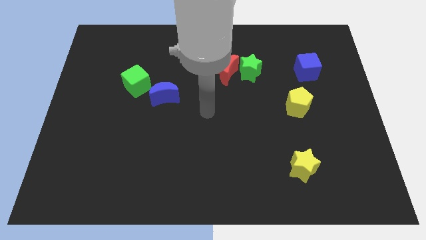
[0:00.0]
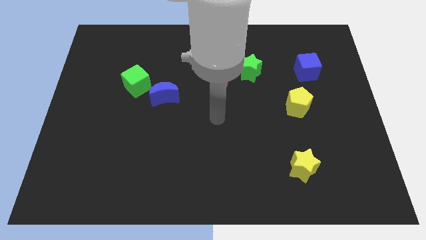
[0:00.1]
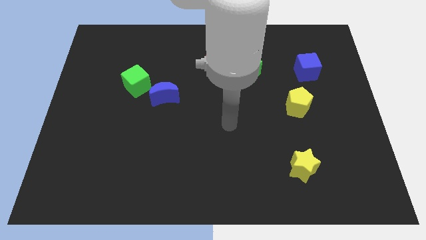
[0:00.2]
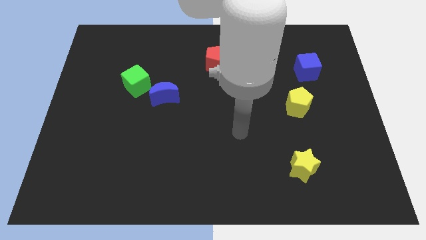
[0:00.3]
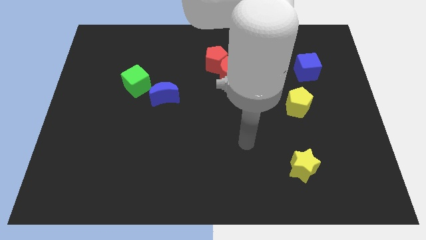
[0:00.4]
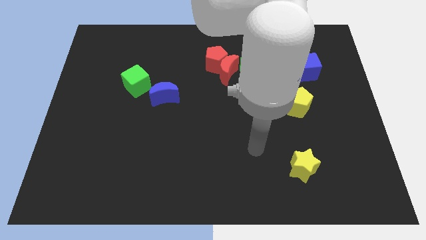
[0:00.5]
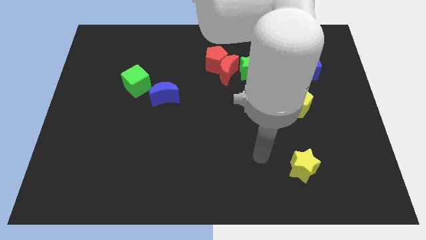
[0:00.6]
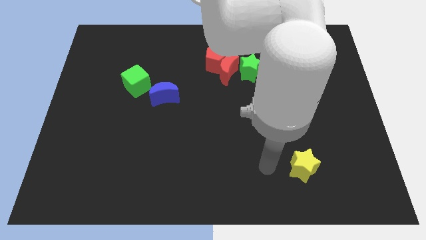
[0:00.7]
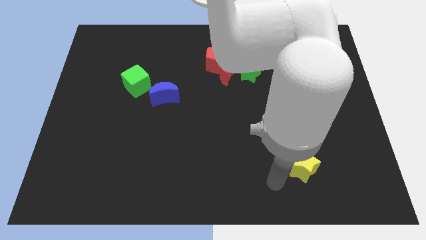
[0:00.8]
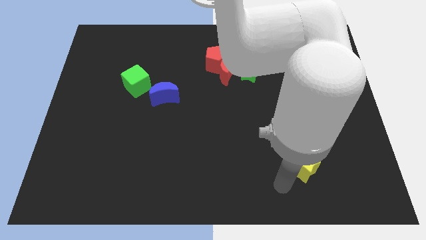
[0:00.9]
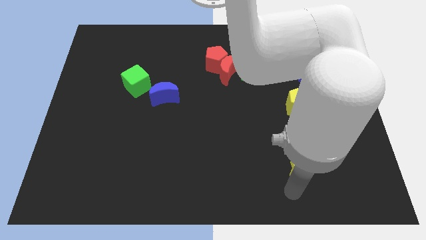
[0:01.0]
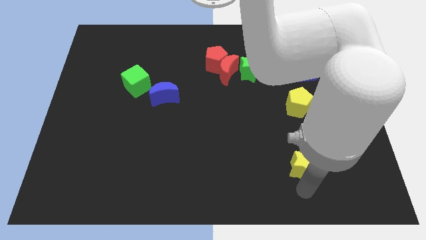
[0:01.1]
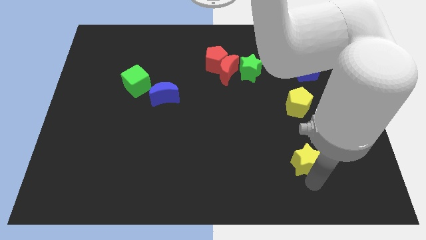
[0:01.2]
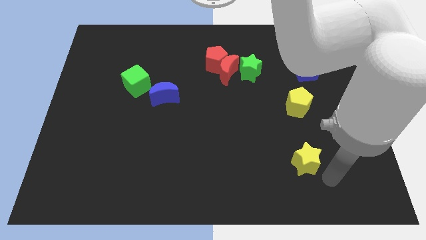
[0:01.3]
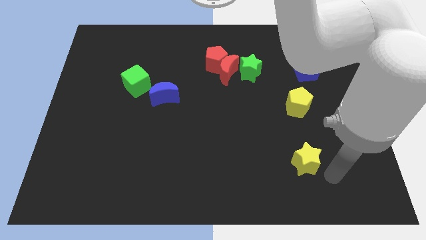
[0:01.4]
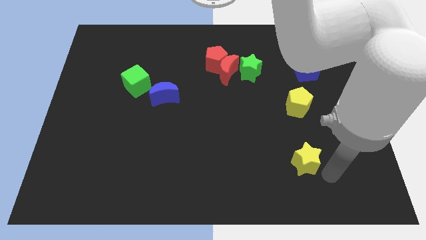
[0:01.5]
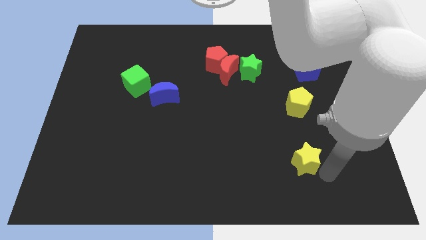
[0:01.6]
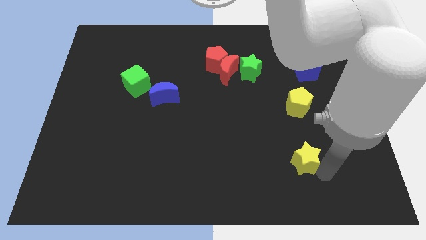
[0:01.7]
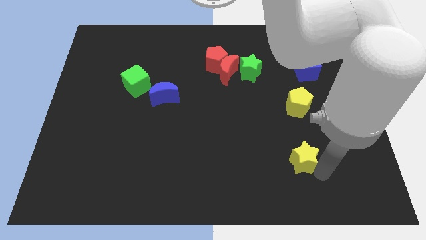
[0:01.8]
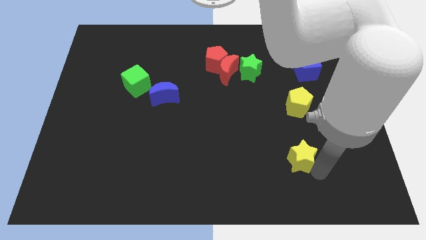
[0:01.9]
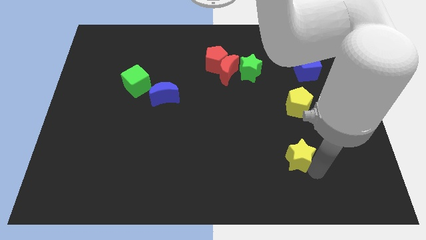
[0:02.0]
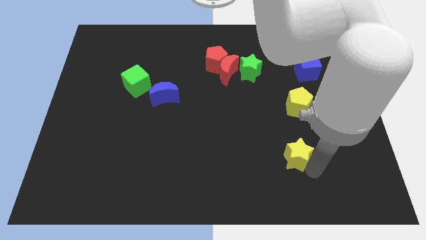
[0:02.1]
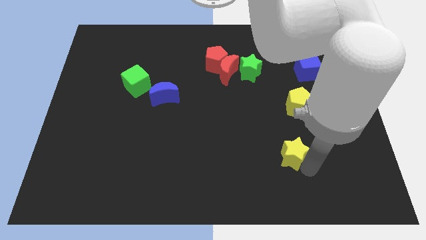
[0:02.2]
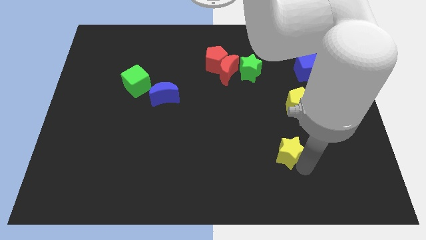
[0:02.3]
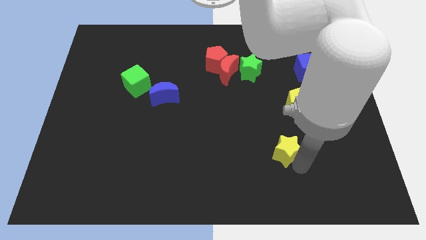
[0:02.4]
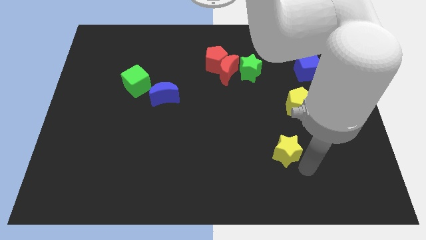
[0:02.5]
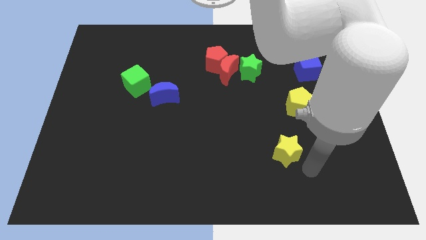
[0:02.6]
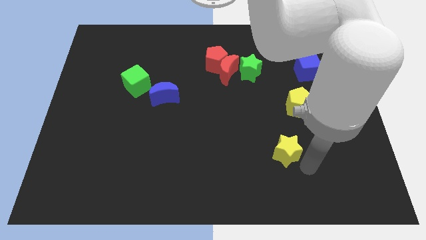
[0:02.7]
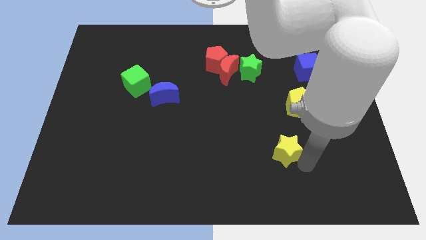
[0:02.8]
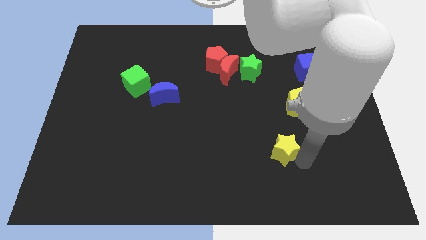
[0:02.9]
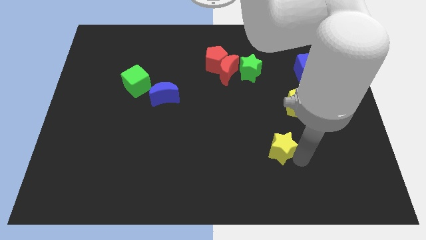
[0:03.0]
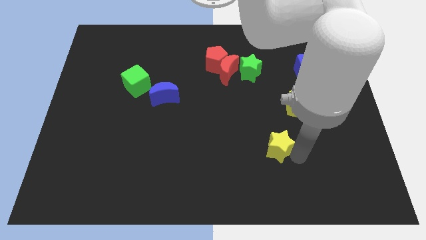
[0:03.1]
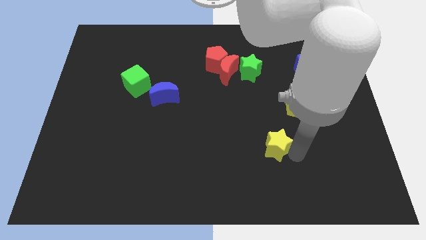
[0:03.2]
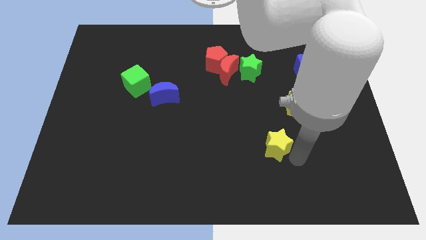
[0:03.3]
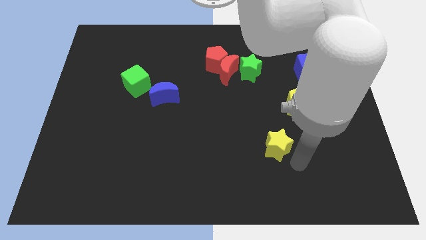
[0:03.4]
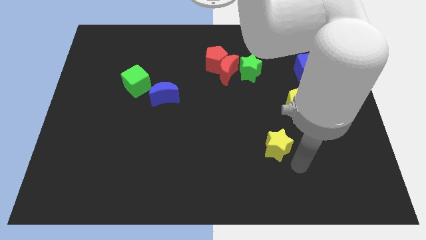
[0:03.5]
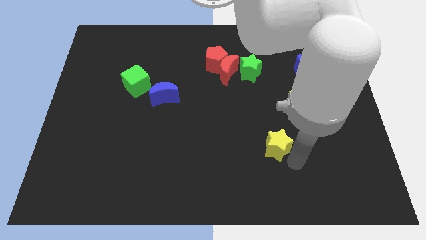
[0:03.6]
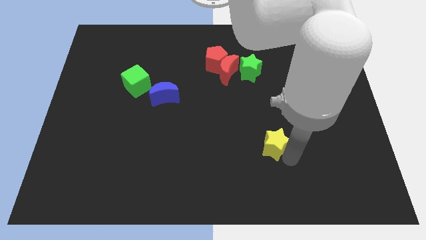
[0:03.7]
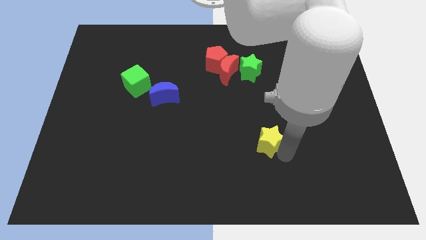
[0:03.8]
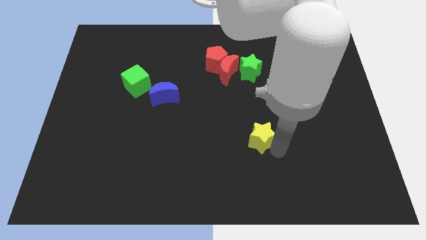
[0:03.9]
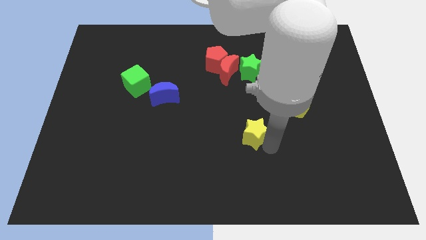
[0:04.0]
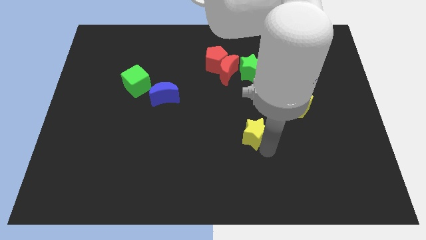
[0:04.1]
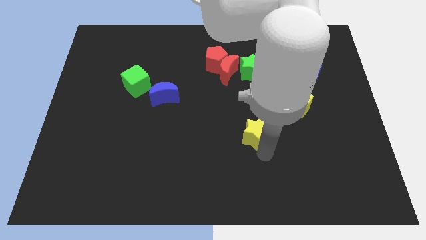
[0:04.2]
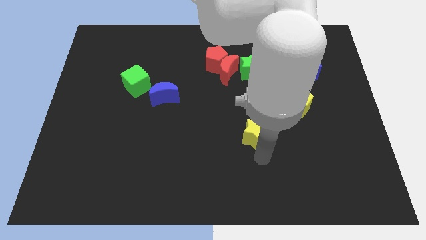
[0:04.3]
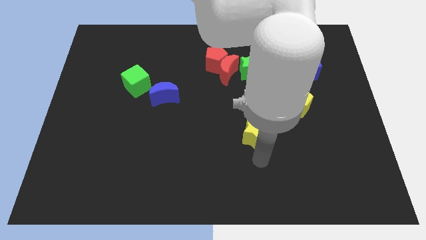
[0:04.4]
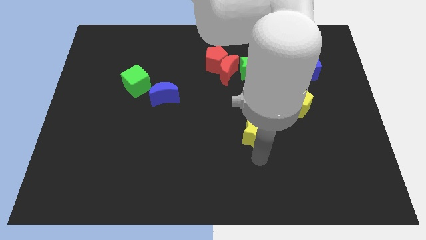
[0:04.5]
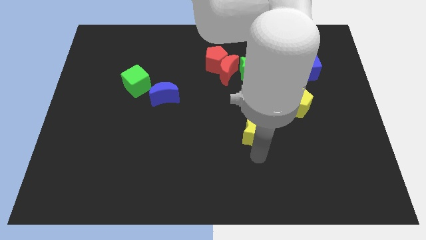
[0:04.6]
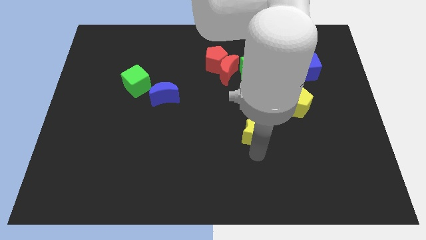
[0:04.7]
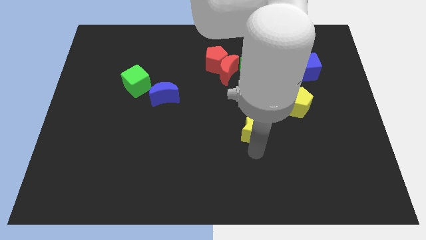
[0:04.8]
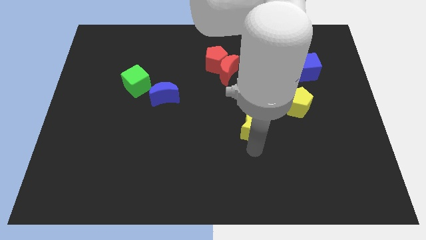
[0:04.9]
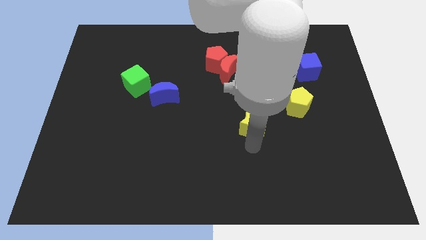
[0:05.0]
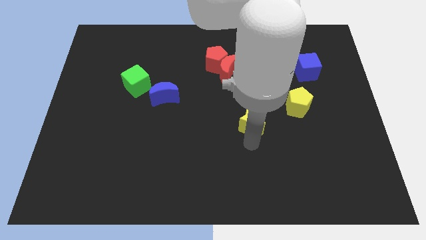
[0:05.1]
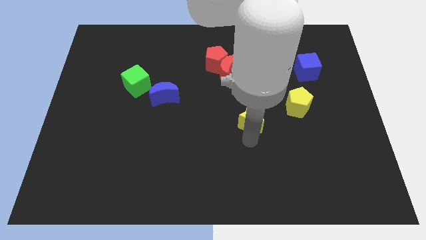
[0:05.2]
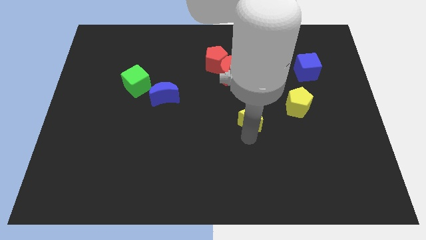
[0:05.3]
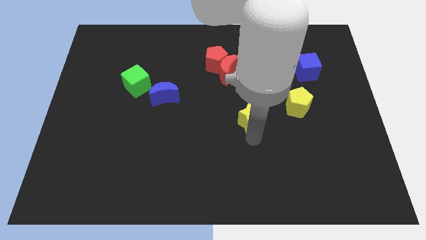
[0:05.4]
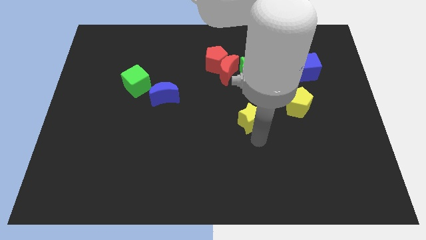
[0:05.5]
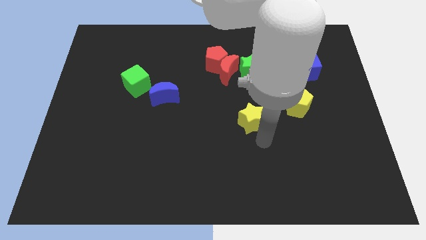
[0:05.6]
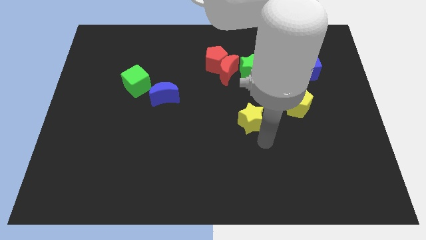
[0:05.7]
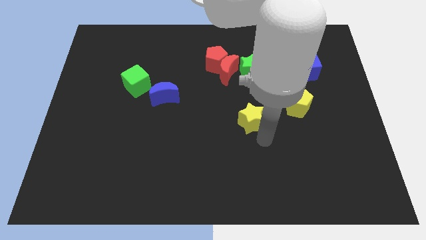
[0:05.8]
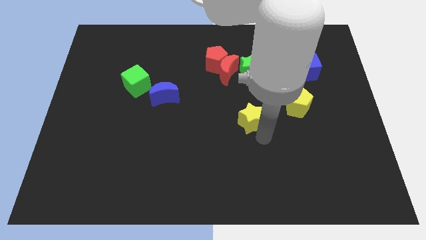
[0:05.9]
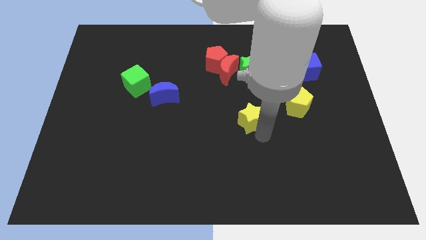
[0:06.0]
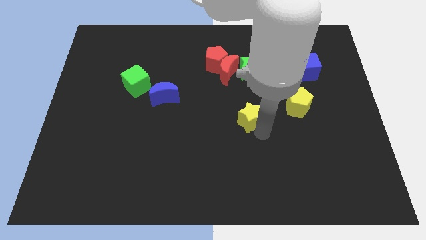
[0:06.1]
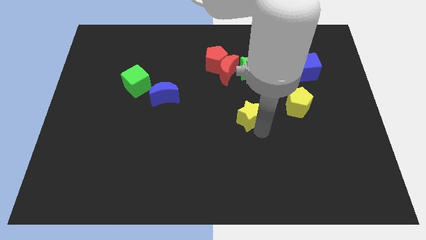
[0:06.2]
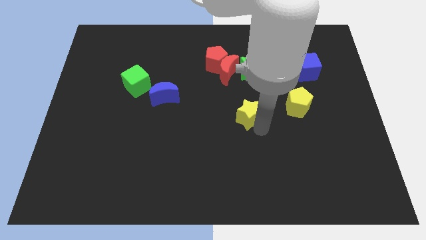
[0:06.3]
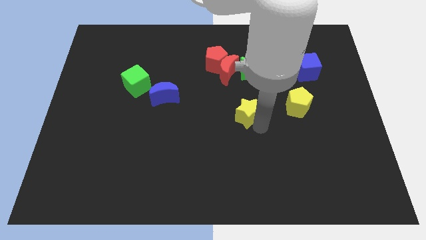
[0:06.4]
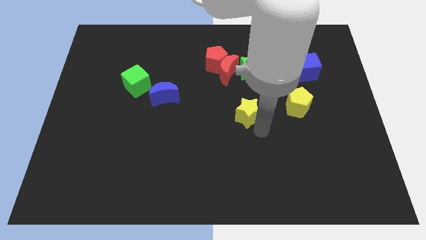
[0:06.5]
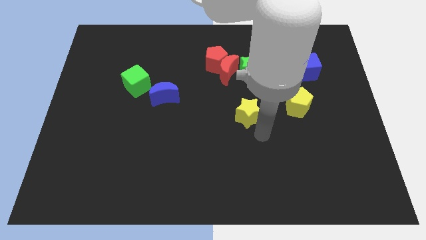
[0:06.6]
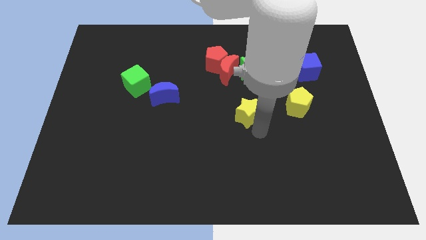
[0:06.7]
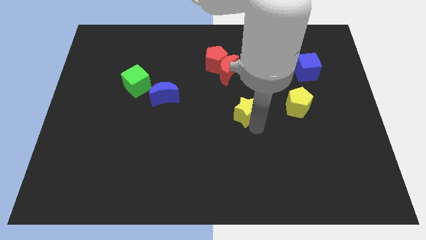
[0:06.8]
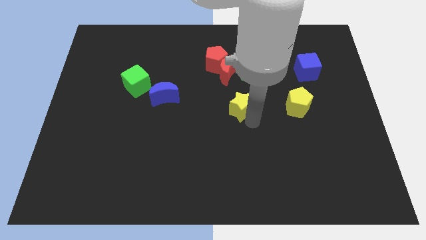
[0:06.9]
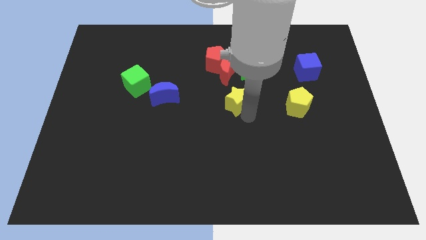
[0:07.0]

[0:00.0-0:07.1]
slide the yellow star upwards and then left

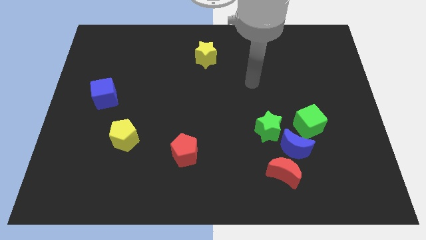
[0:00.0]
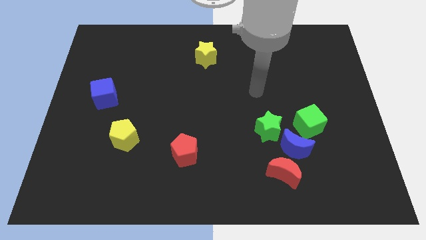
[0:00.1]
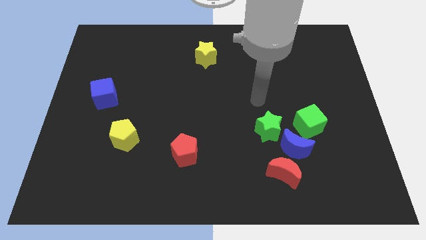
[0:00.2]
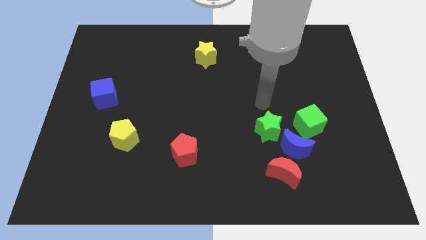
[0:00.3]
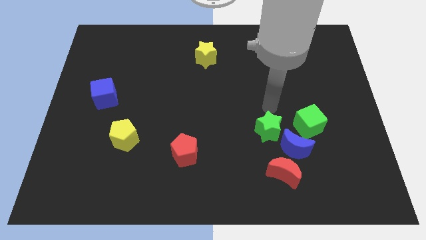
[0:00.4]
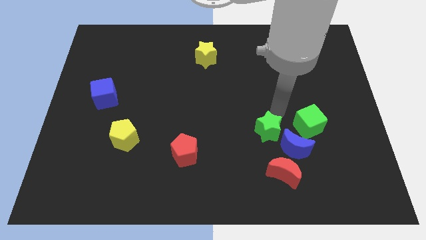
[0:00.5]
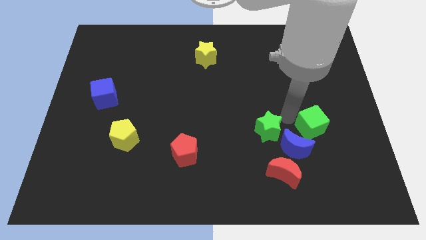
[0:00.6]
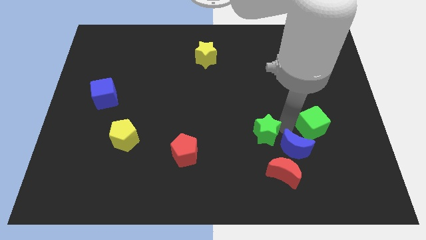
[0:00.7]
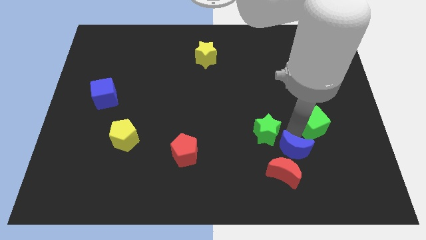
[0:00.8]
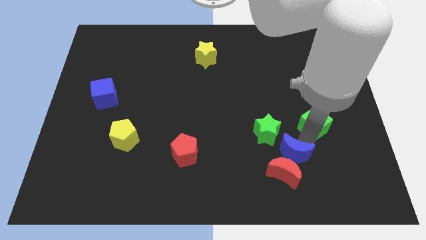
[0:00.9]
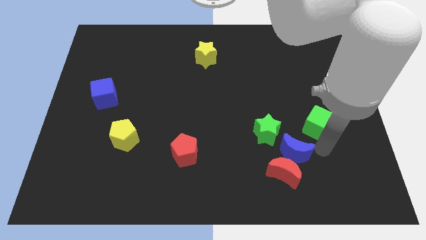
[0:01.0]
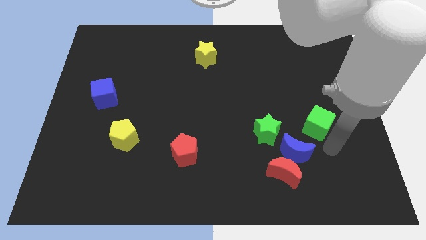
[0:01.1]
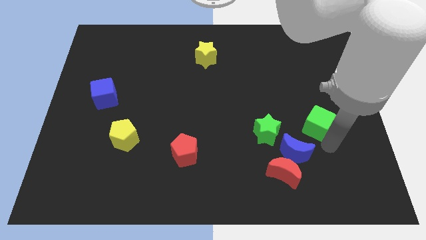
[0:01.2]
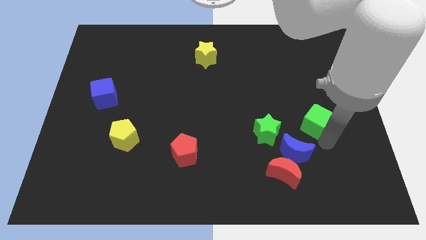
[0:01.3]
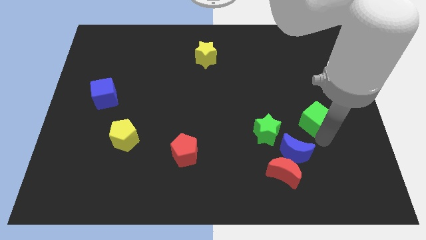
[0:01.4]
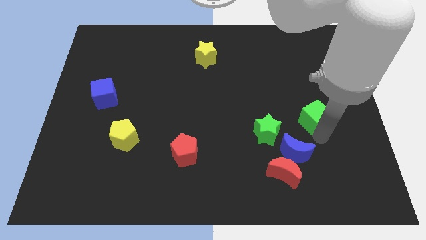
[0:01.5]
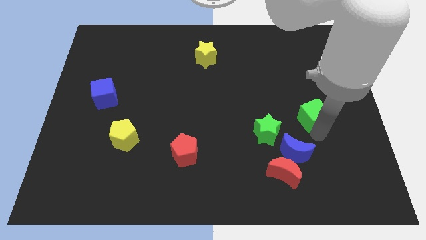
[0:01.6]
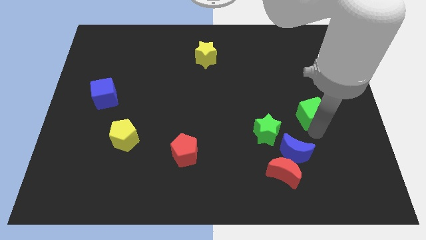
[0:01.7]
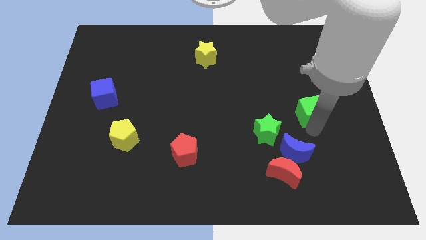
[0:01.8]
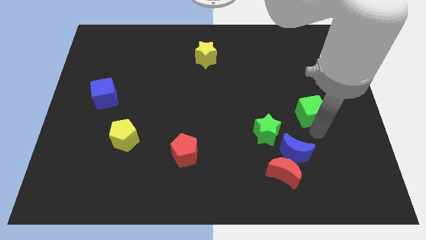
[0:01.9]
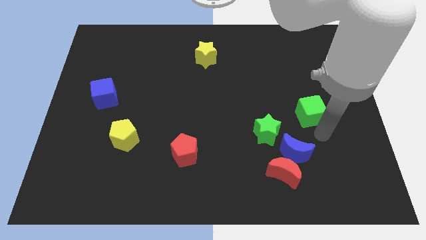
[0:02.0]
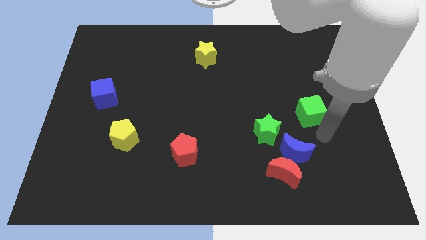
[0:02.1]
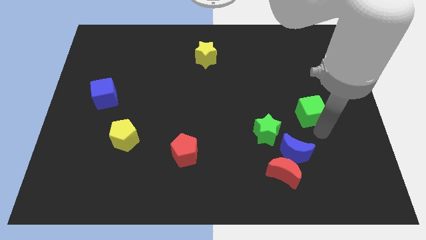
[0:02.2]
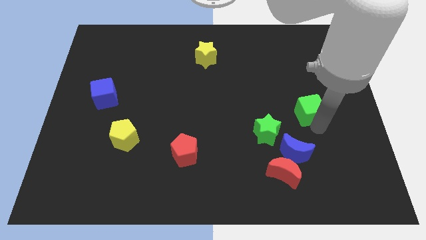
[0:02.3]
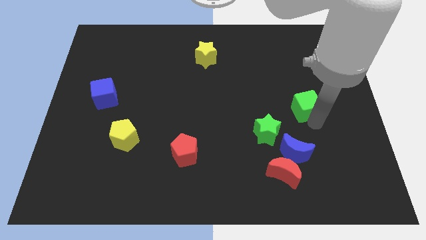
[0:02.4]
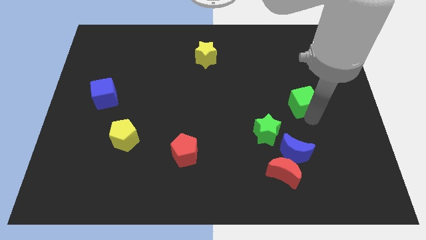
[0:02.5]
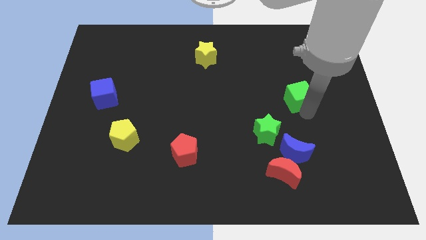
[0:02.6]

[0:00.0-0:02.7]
slide the green cube up somewhat
